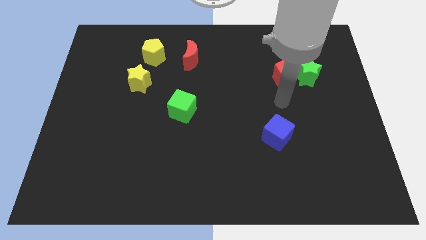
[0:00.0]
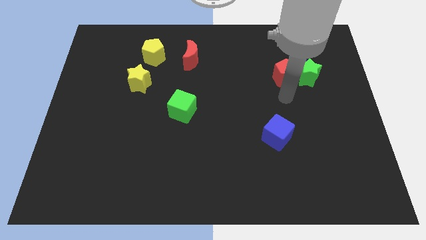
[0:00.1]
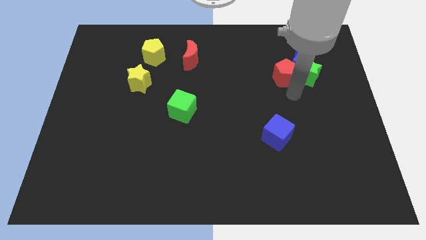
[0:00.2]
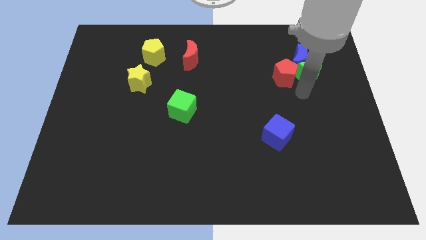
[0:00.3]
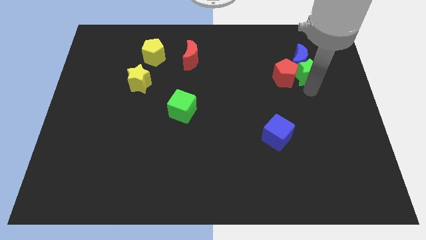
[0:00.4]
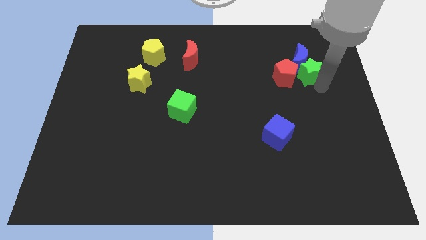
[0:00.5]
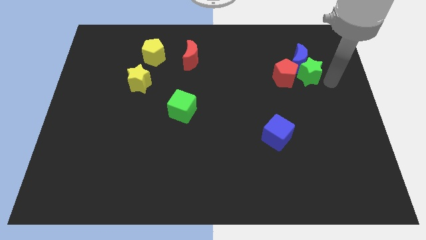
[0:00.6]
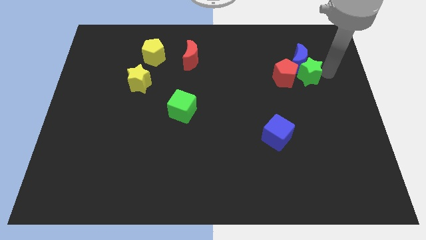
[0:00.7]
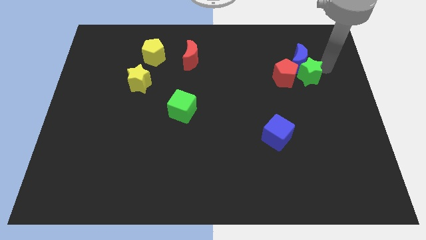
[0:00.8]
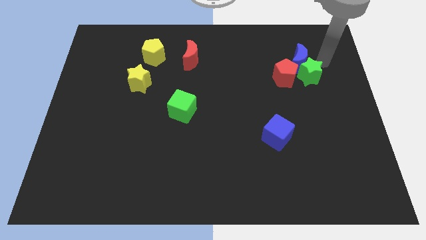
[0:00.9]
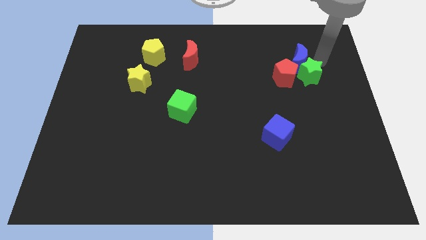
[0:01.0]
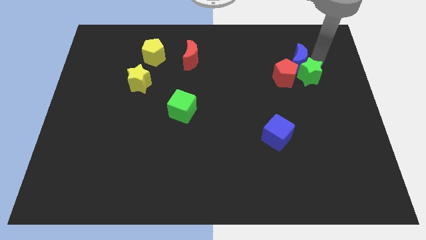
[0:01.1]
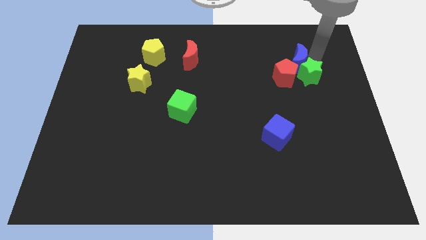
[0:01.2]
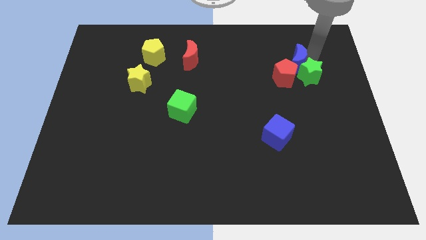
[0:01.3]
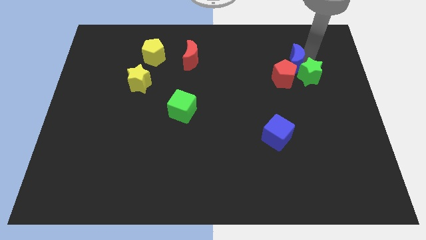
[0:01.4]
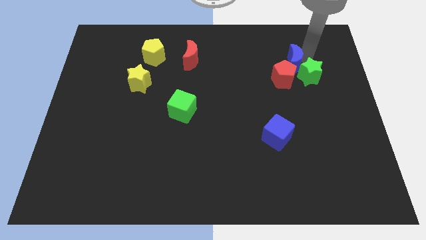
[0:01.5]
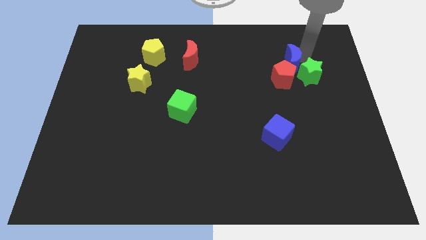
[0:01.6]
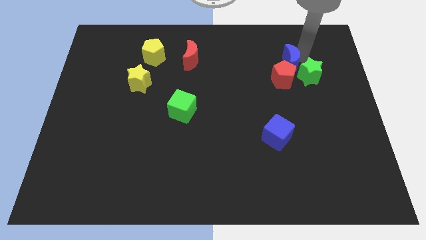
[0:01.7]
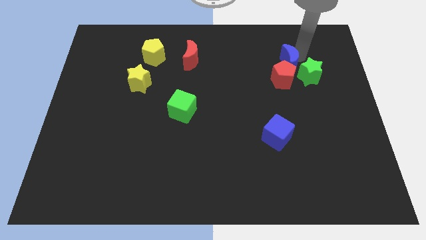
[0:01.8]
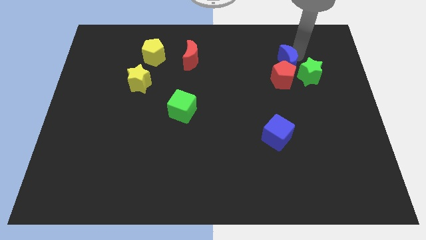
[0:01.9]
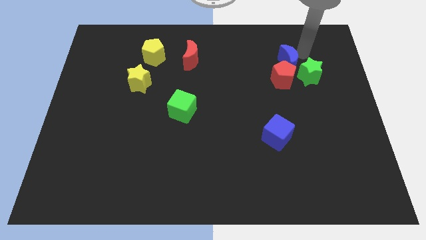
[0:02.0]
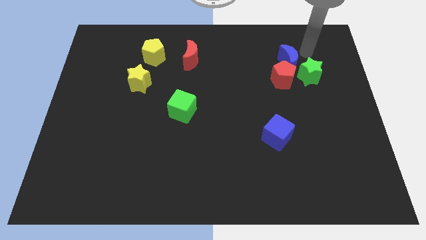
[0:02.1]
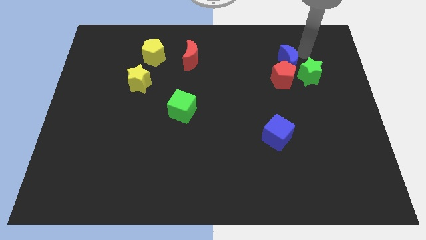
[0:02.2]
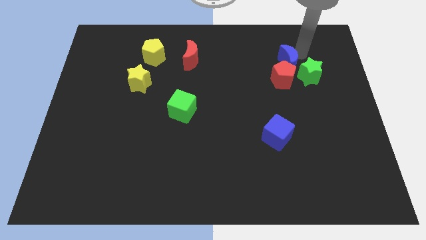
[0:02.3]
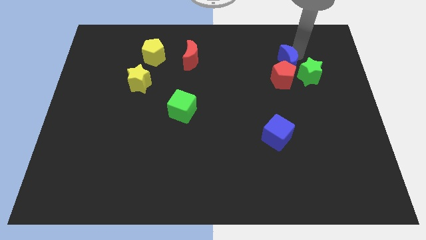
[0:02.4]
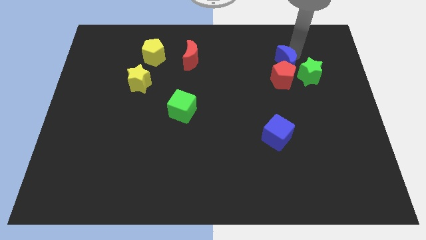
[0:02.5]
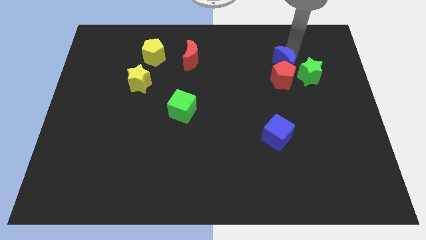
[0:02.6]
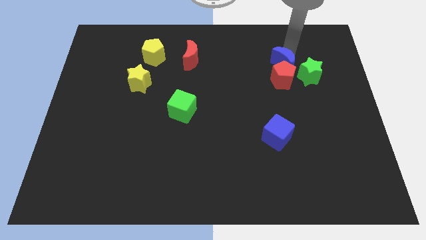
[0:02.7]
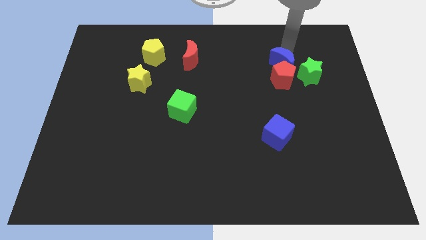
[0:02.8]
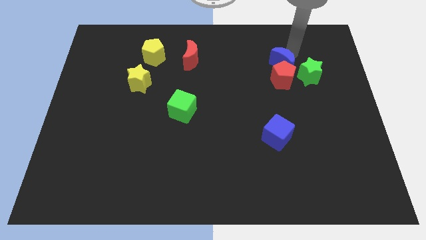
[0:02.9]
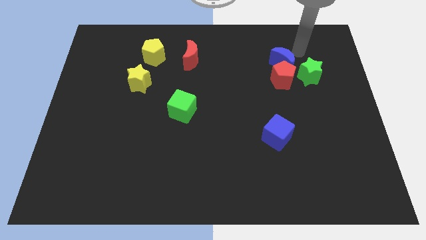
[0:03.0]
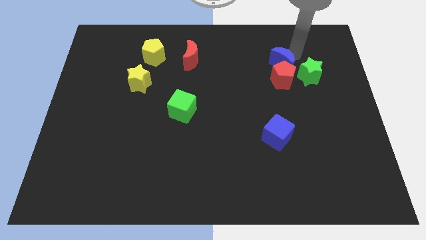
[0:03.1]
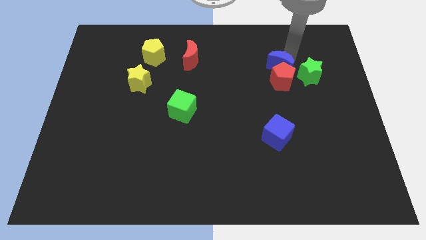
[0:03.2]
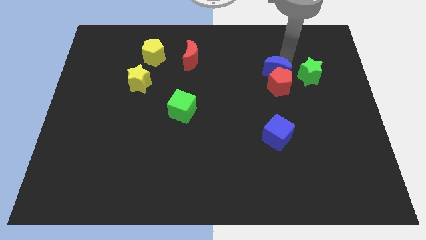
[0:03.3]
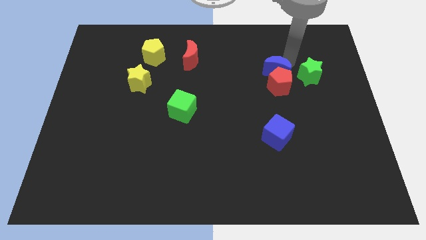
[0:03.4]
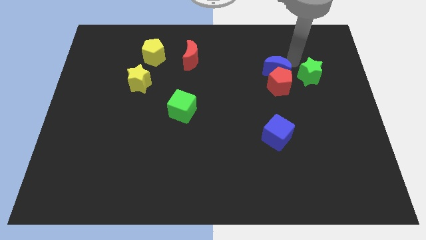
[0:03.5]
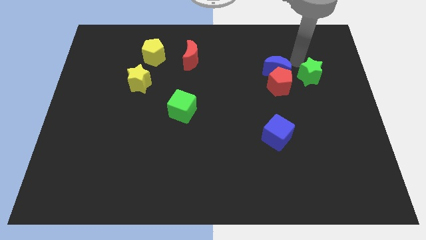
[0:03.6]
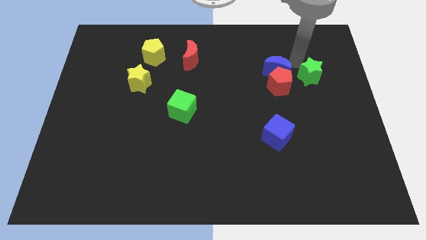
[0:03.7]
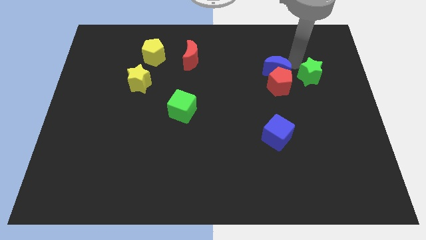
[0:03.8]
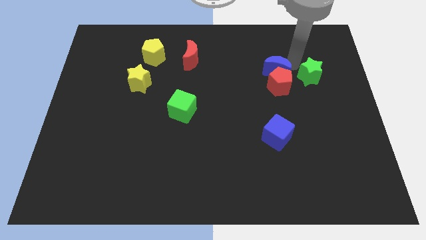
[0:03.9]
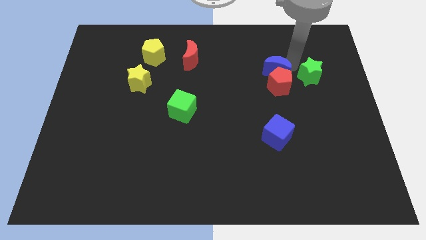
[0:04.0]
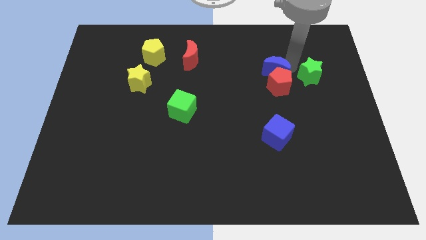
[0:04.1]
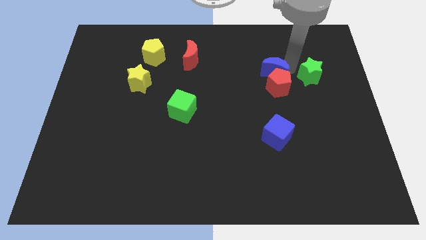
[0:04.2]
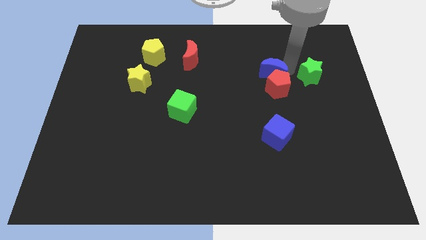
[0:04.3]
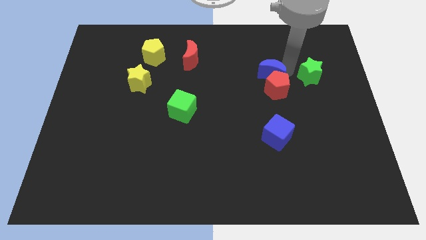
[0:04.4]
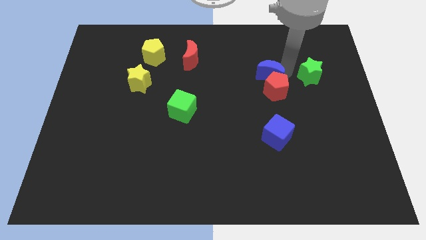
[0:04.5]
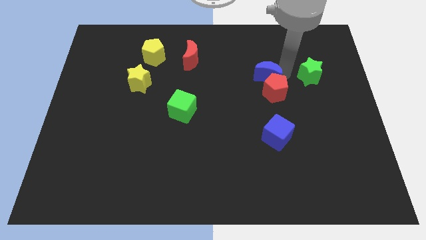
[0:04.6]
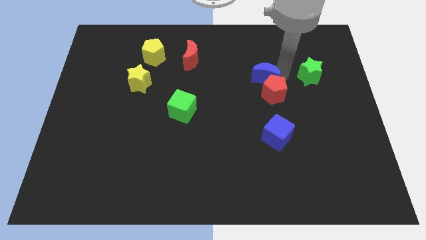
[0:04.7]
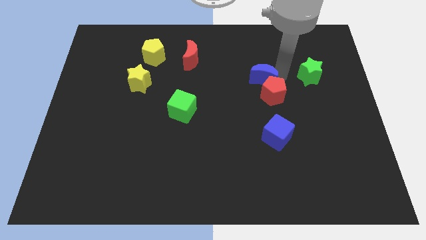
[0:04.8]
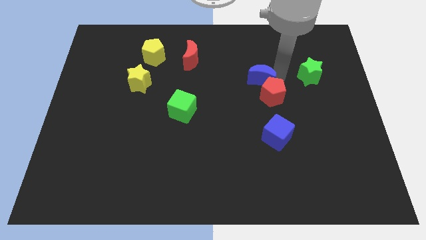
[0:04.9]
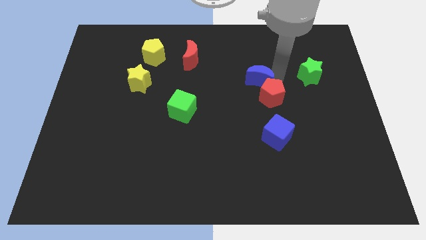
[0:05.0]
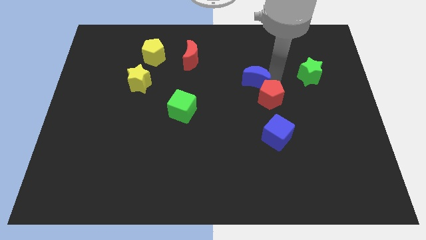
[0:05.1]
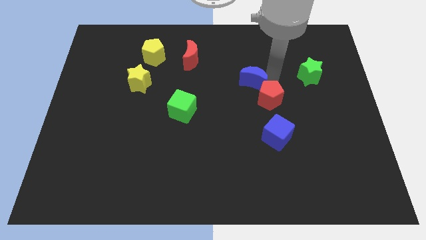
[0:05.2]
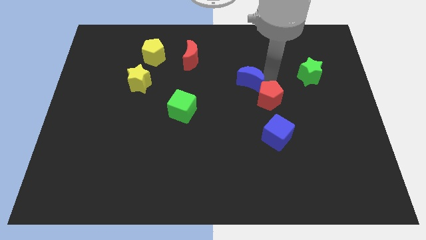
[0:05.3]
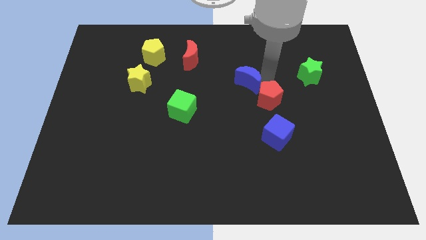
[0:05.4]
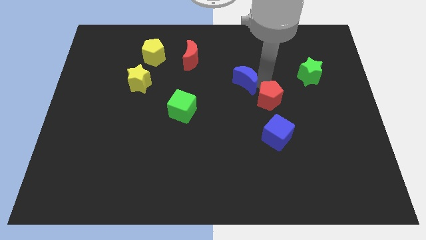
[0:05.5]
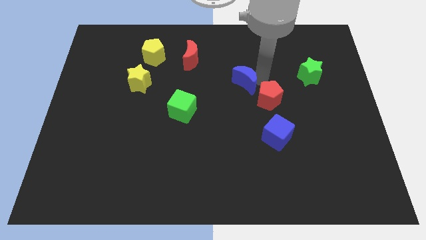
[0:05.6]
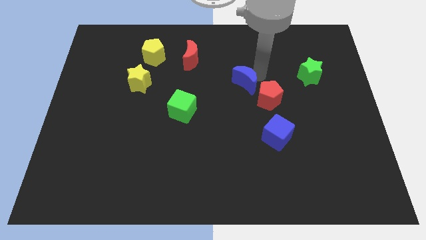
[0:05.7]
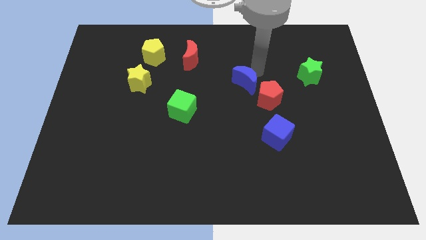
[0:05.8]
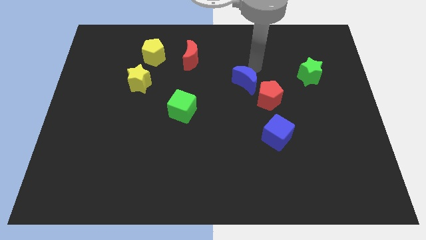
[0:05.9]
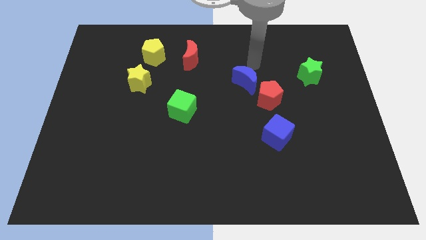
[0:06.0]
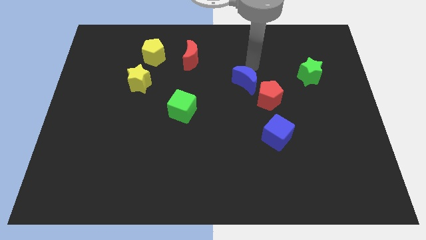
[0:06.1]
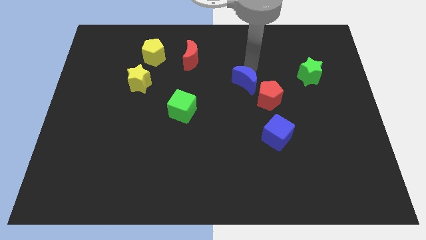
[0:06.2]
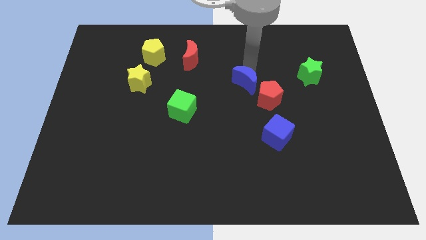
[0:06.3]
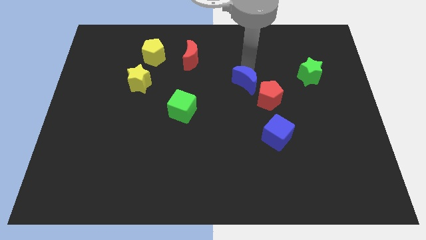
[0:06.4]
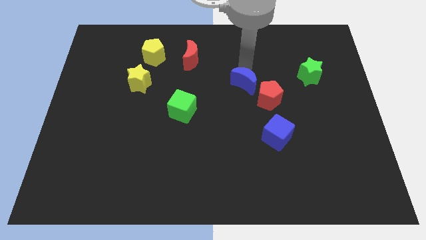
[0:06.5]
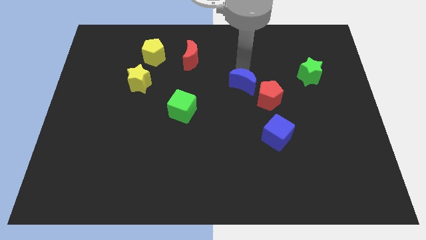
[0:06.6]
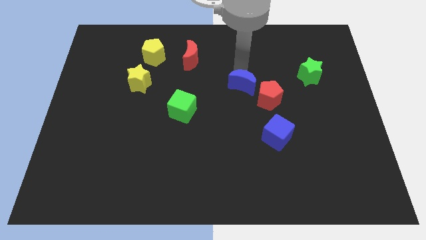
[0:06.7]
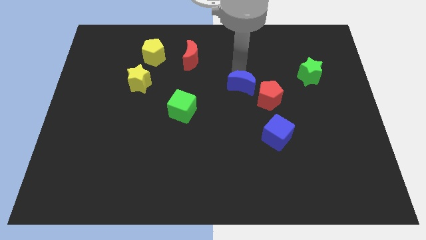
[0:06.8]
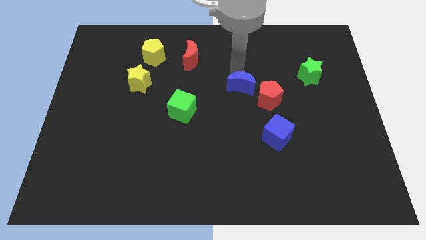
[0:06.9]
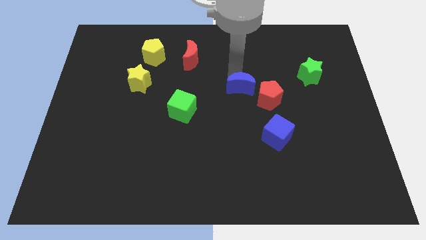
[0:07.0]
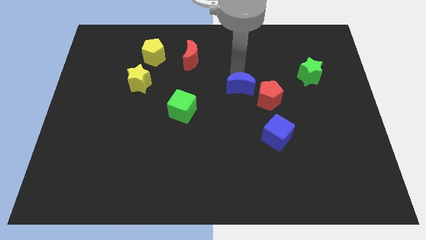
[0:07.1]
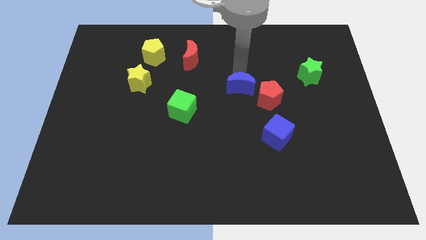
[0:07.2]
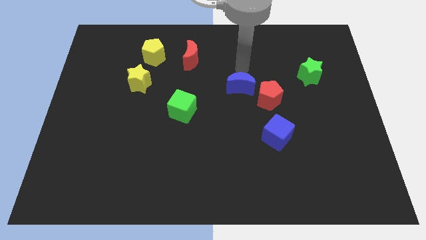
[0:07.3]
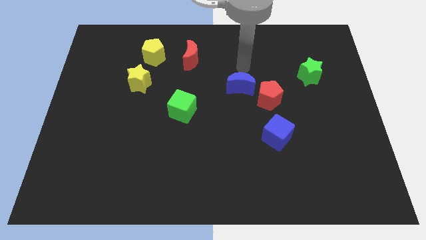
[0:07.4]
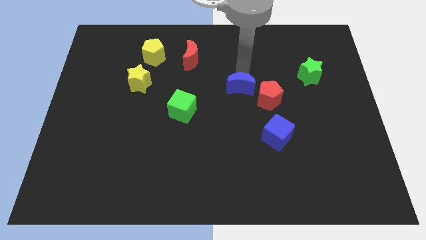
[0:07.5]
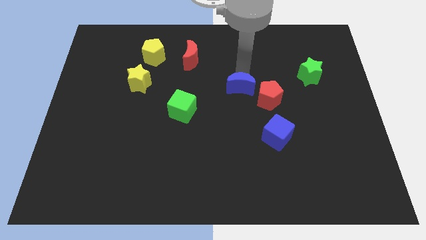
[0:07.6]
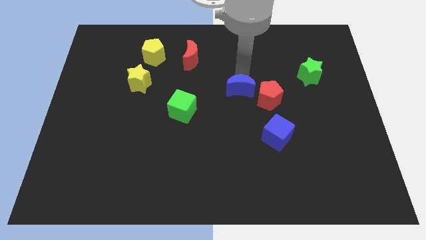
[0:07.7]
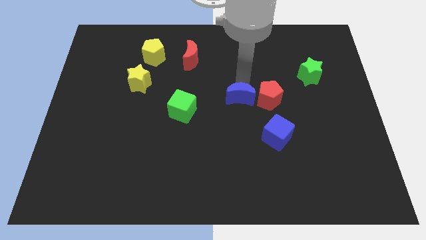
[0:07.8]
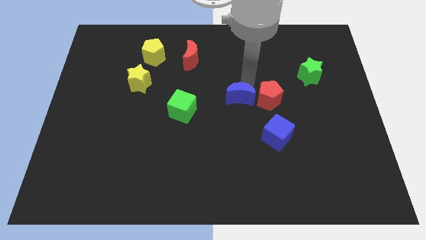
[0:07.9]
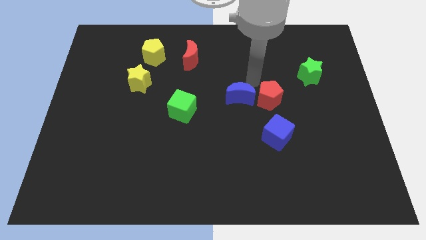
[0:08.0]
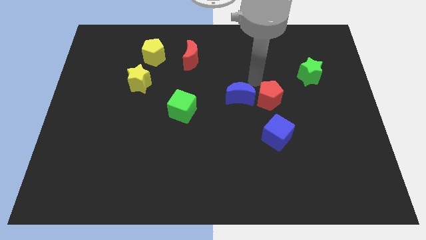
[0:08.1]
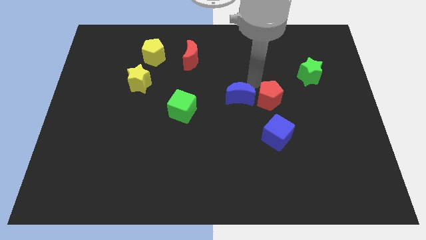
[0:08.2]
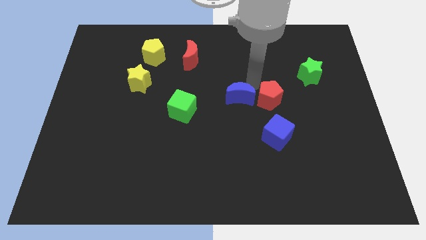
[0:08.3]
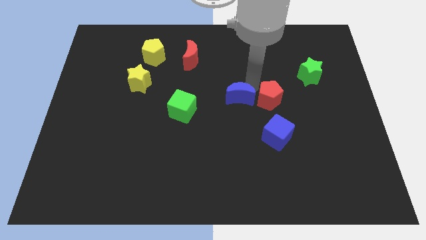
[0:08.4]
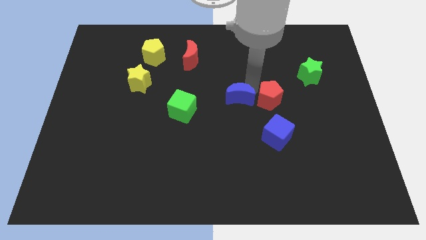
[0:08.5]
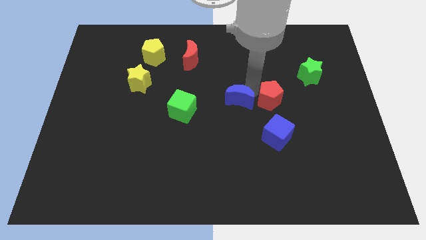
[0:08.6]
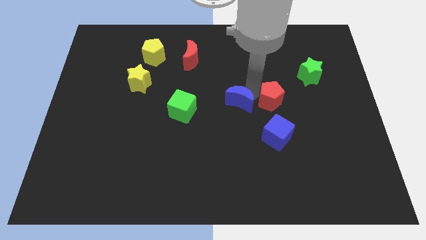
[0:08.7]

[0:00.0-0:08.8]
push the blue moon diagonally down and to the left
